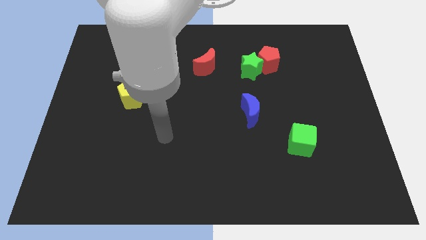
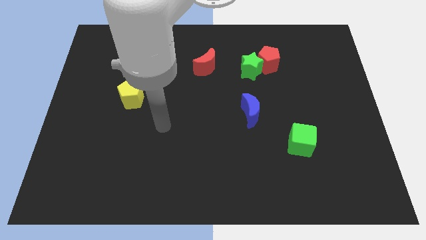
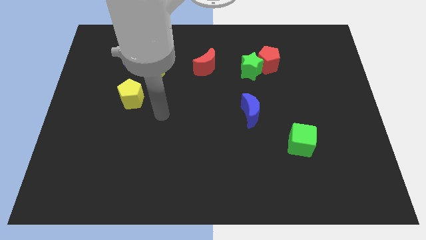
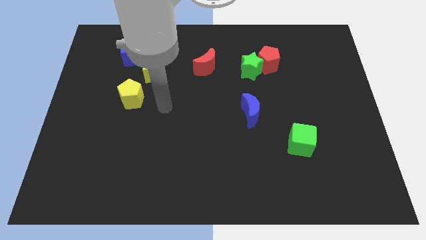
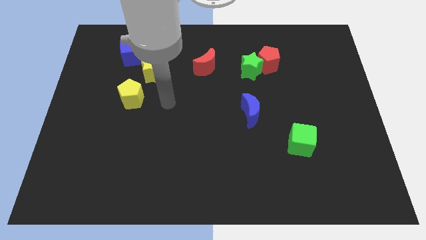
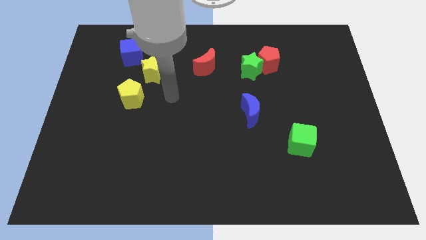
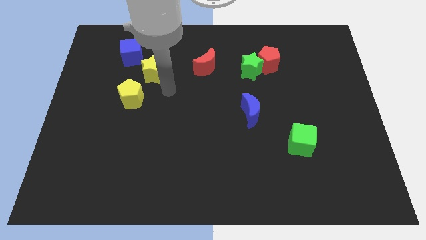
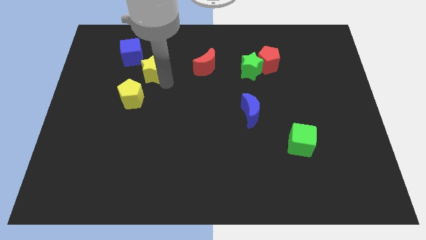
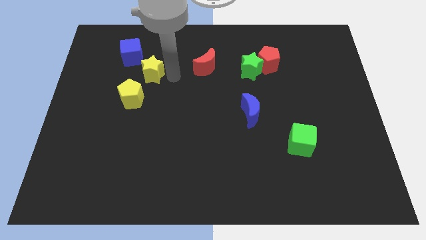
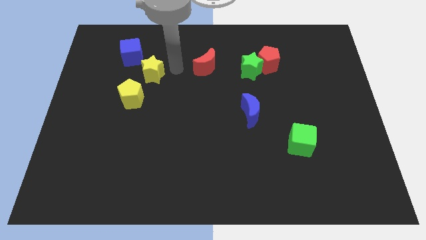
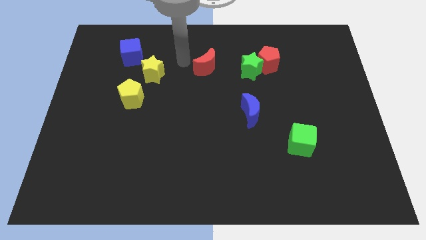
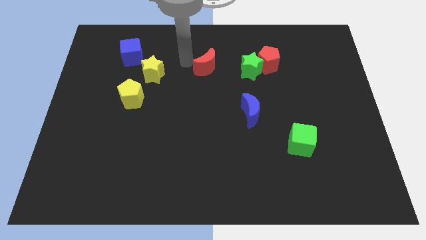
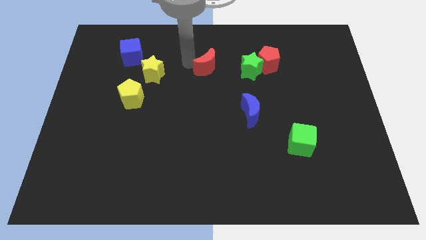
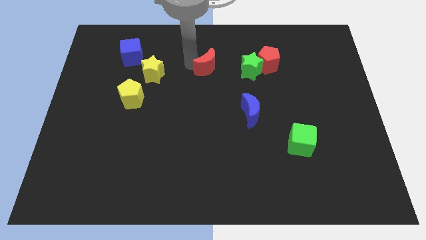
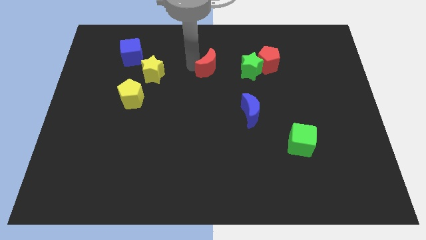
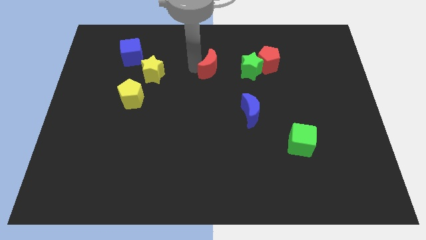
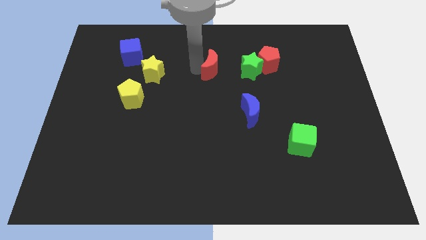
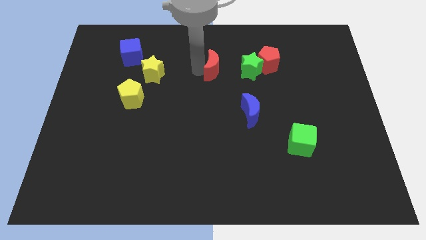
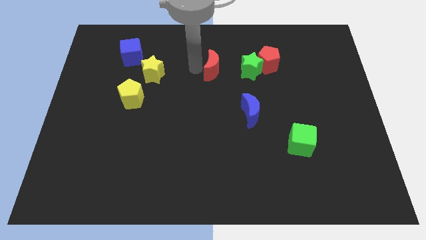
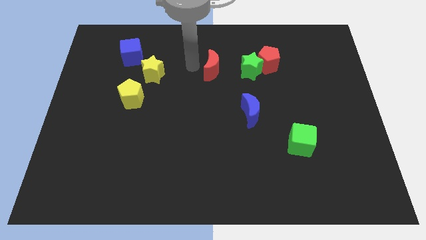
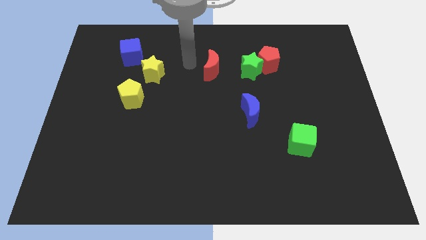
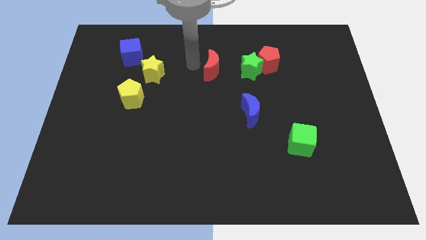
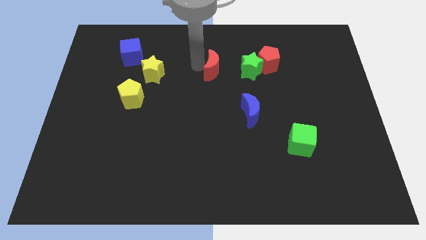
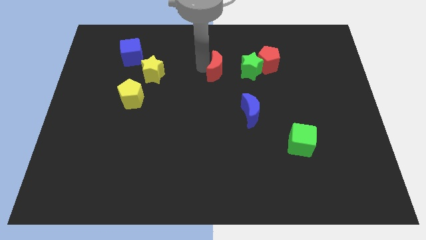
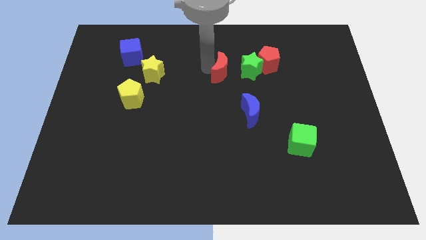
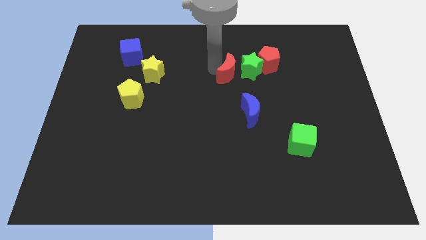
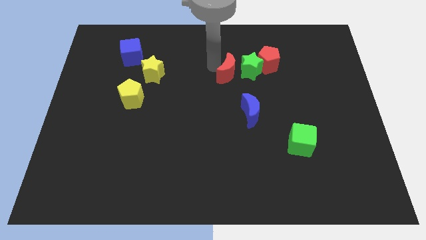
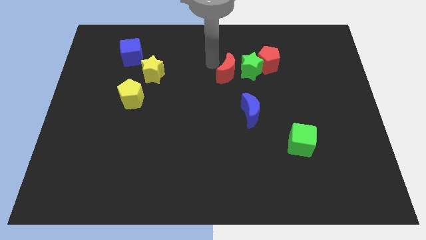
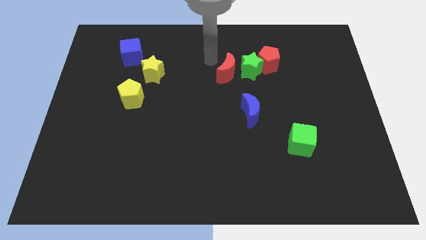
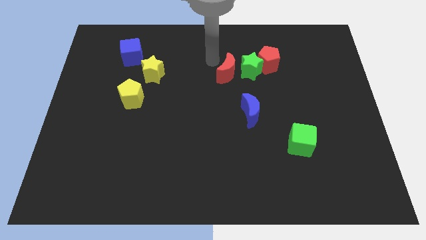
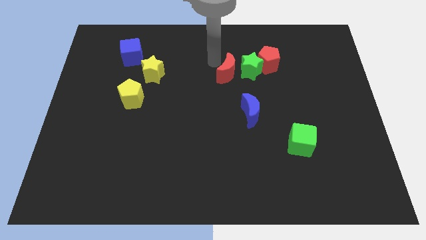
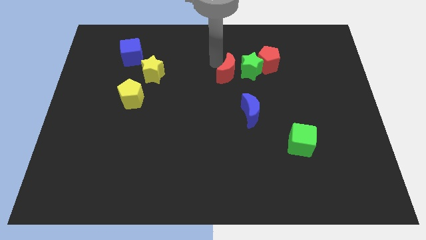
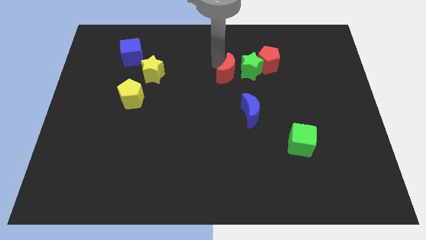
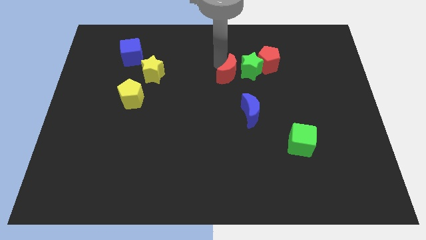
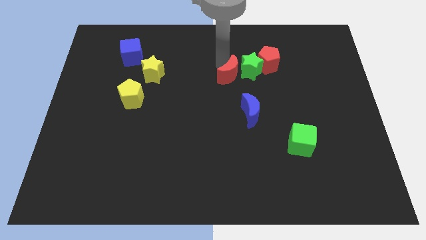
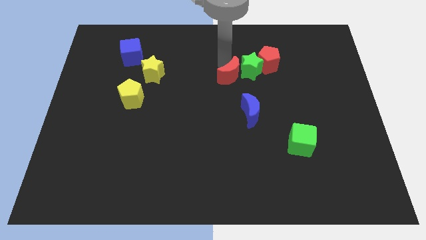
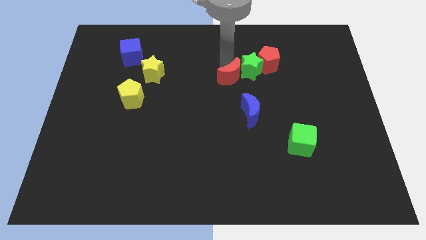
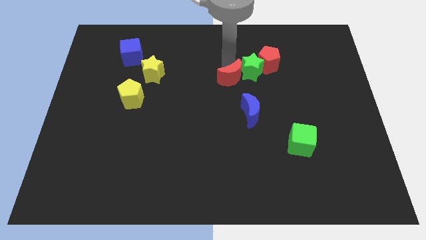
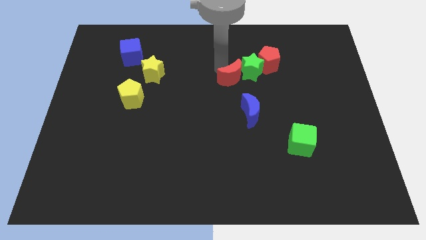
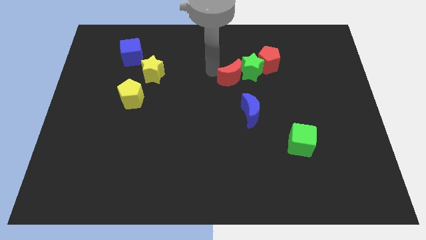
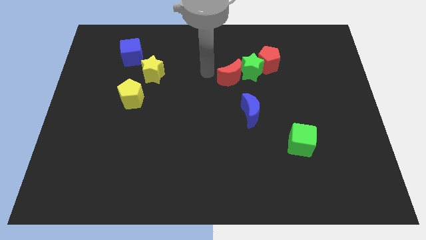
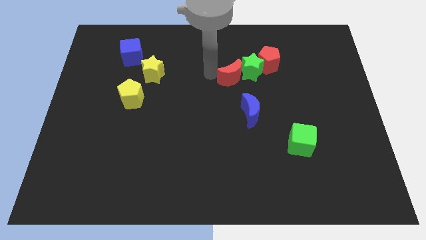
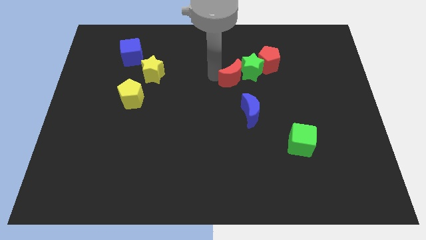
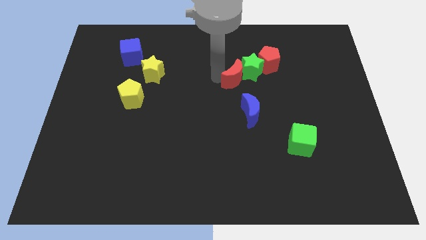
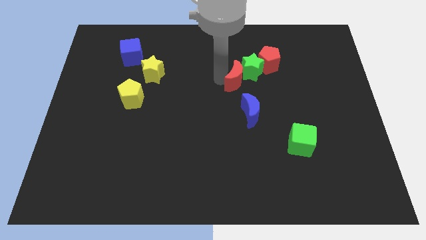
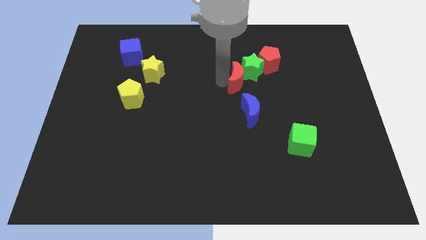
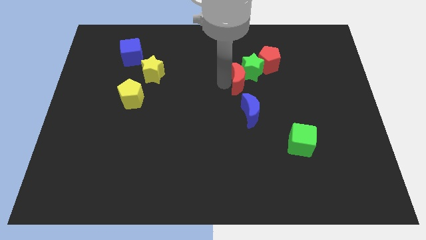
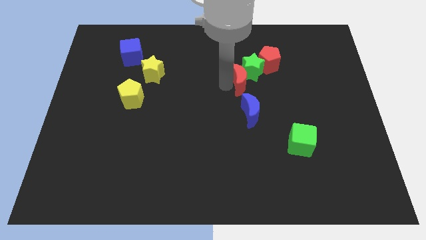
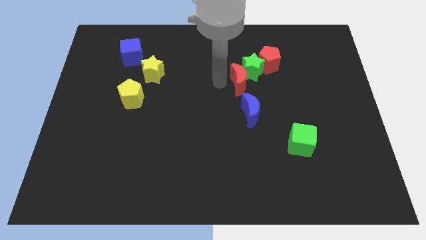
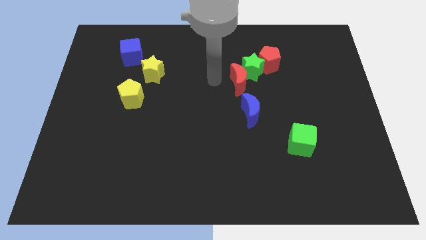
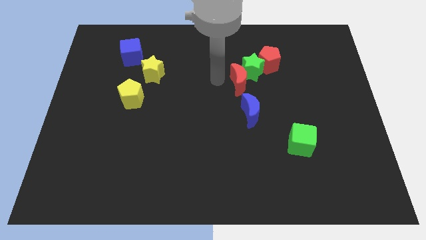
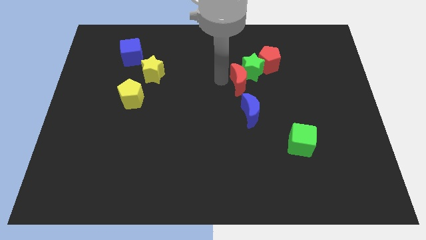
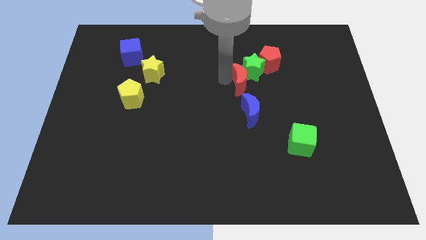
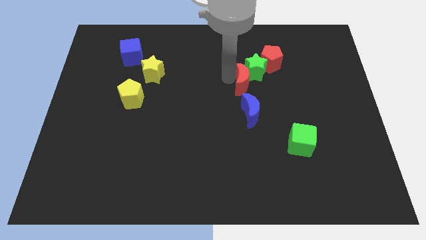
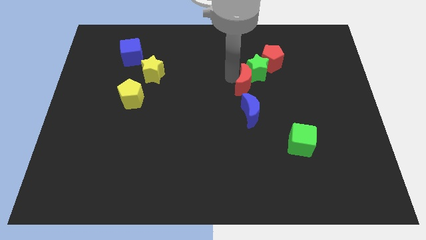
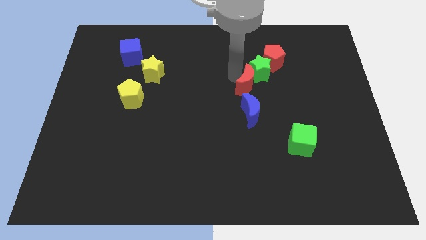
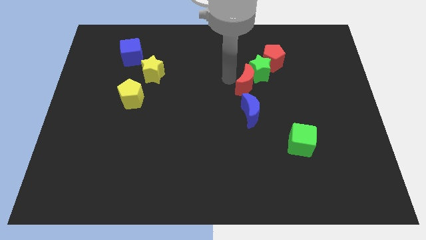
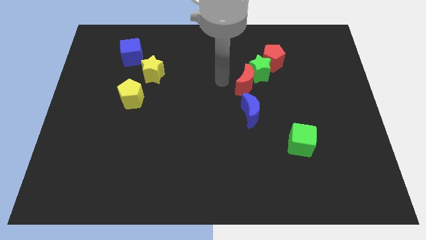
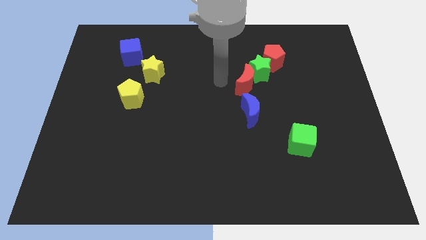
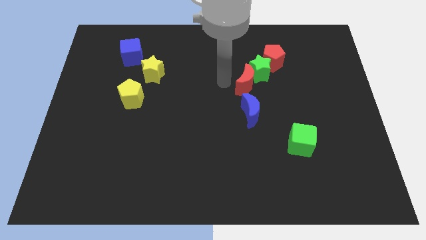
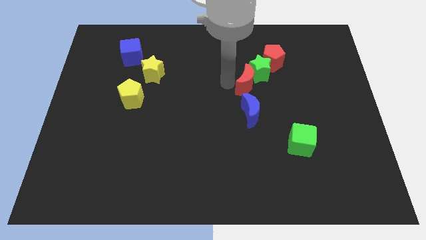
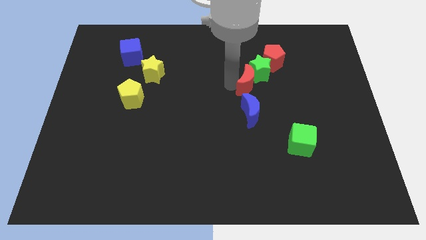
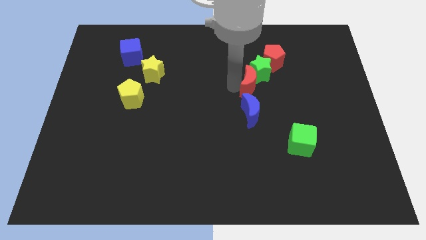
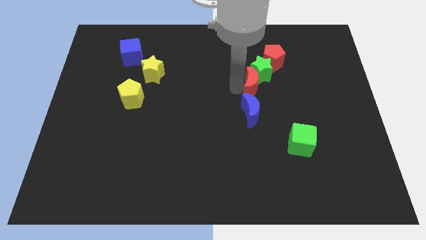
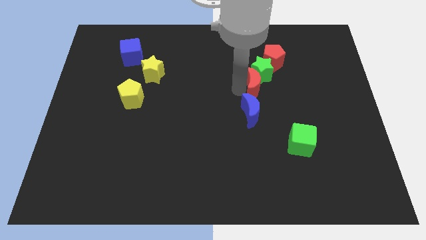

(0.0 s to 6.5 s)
move the red moon diagonally down and to the right of the green star
